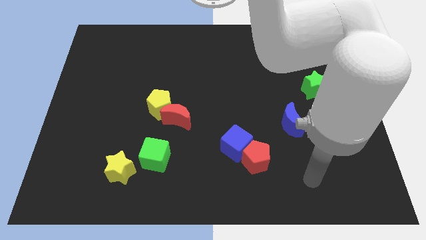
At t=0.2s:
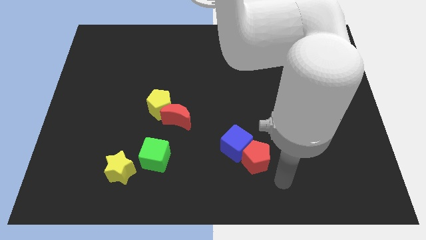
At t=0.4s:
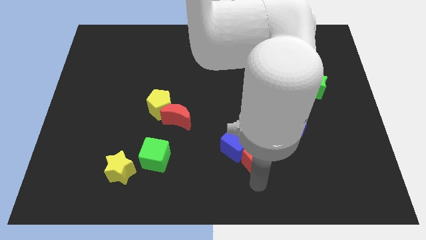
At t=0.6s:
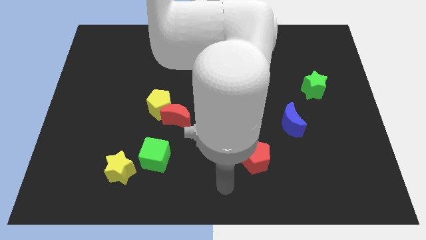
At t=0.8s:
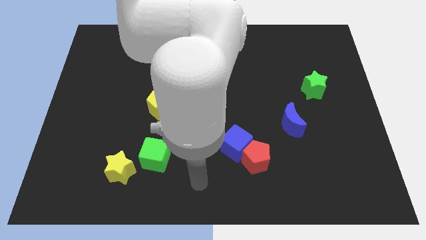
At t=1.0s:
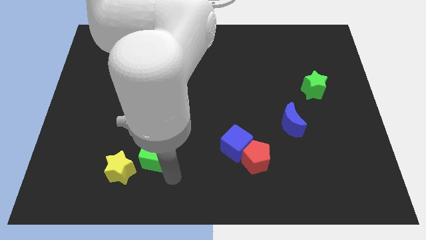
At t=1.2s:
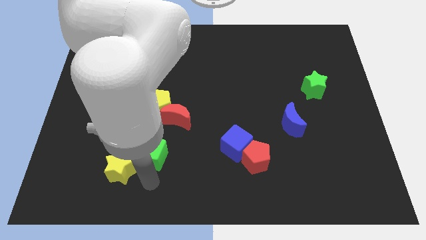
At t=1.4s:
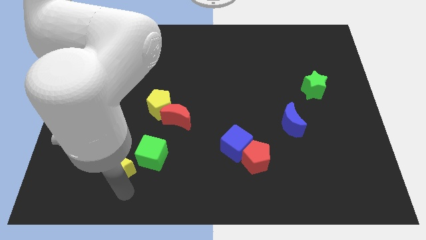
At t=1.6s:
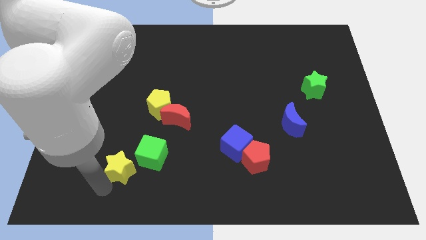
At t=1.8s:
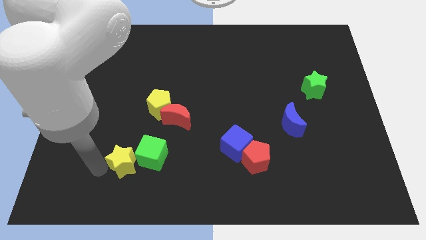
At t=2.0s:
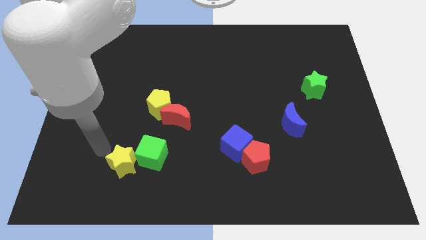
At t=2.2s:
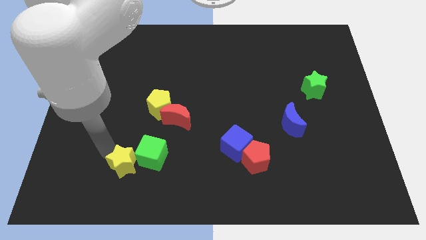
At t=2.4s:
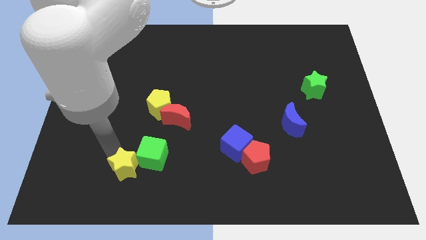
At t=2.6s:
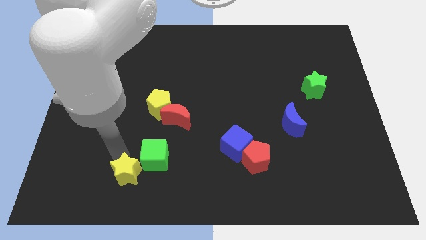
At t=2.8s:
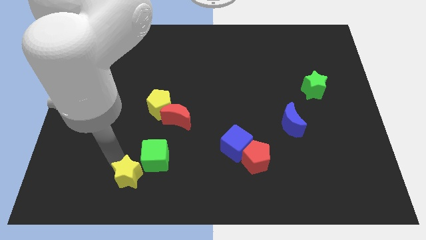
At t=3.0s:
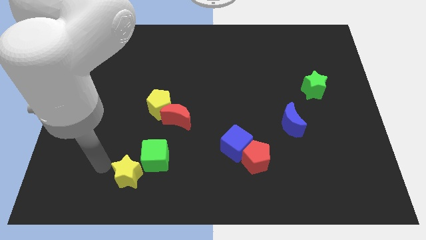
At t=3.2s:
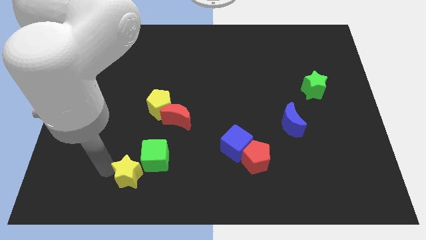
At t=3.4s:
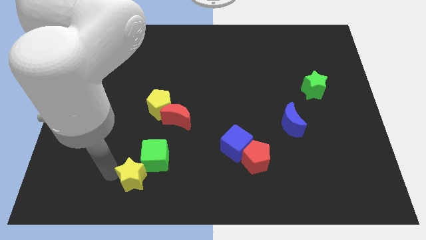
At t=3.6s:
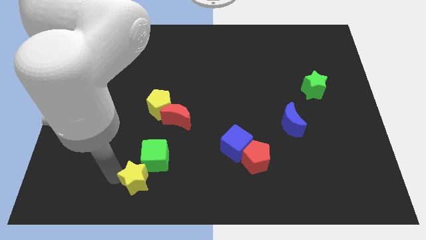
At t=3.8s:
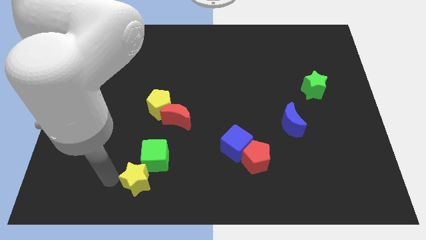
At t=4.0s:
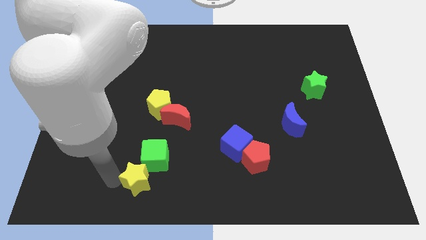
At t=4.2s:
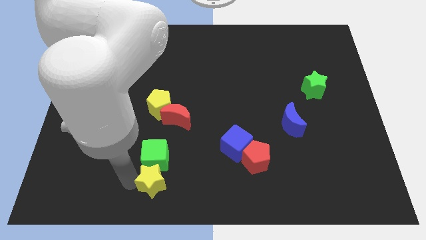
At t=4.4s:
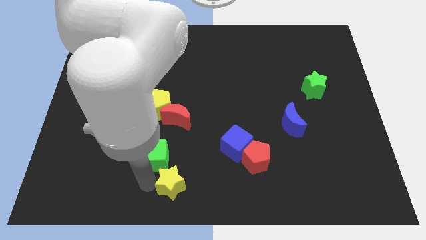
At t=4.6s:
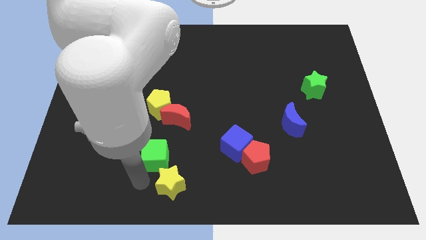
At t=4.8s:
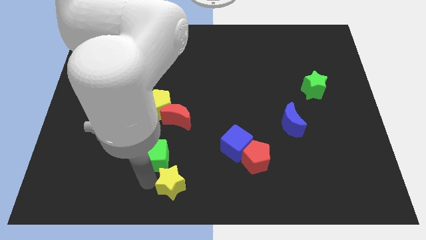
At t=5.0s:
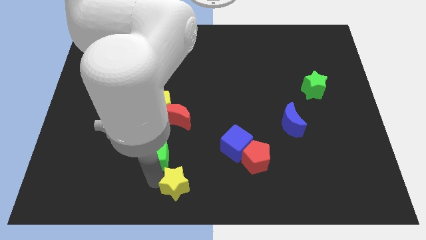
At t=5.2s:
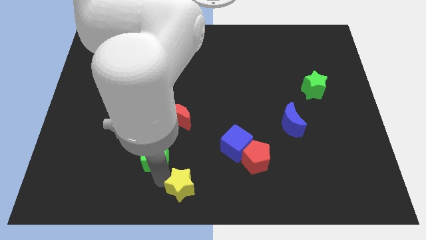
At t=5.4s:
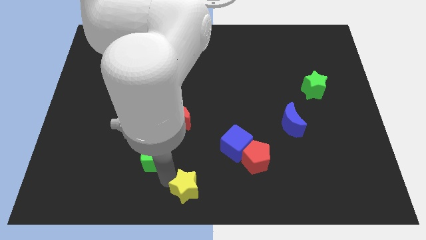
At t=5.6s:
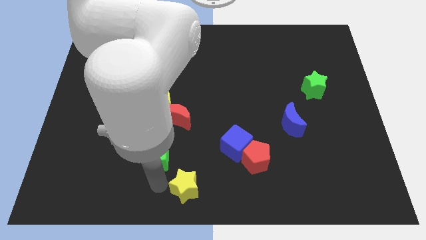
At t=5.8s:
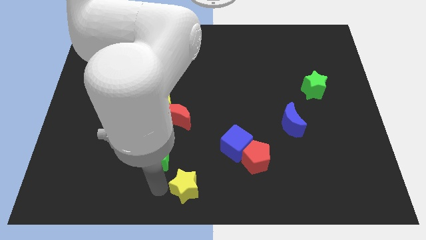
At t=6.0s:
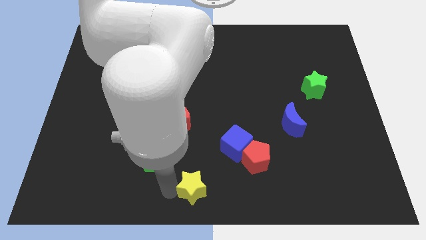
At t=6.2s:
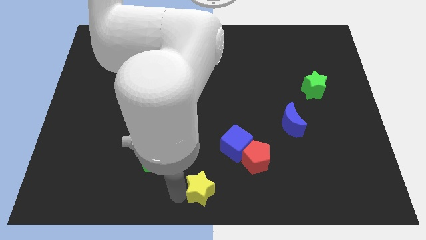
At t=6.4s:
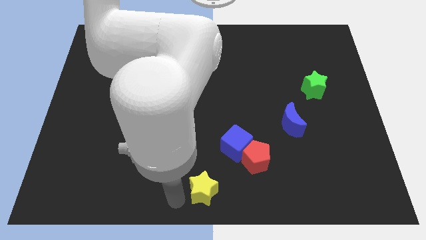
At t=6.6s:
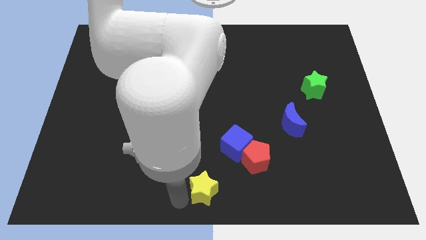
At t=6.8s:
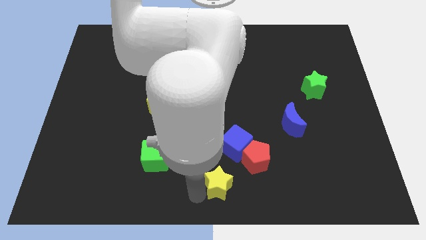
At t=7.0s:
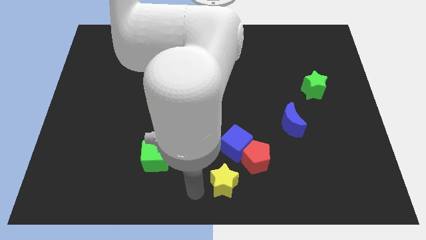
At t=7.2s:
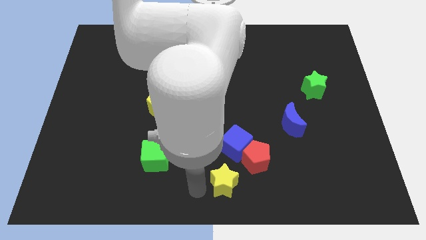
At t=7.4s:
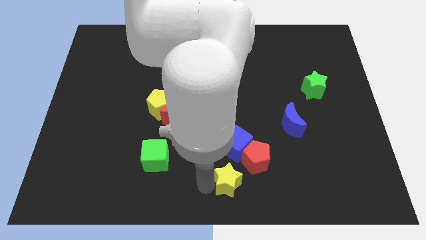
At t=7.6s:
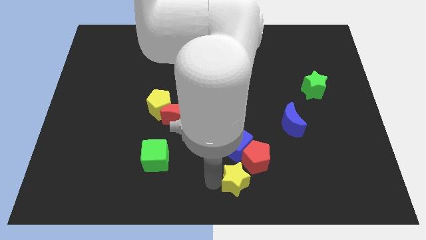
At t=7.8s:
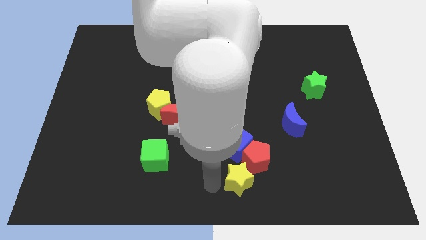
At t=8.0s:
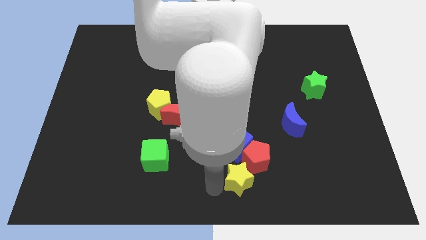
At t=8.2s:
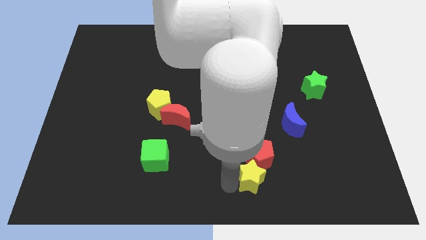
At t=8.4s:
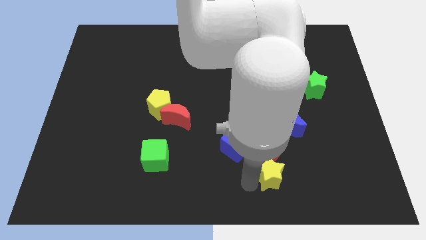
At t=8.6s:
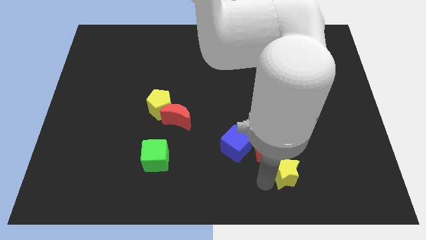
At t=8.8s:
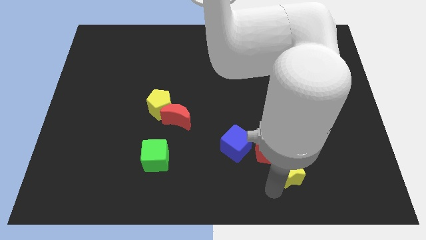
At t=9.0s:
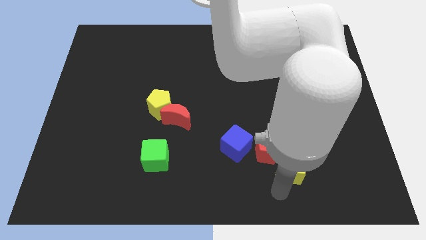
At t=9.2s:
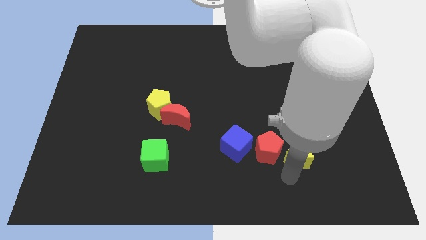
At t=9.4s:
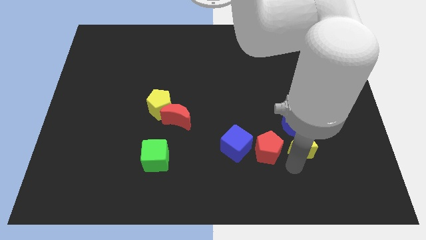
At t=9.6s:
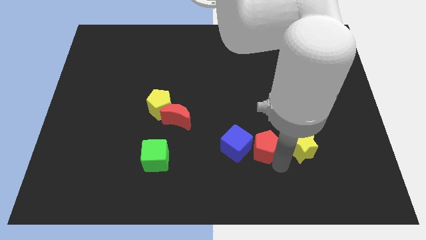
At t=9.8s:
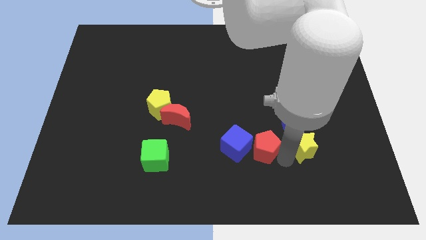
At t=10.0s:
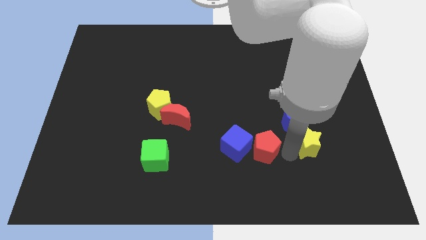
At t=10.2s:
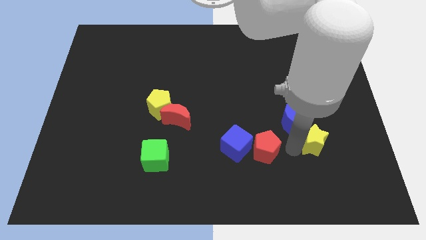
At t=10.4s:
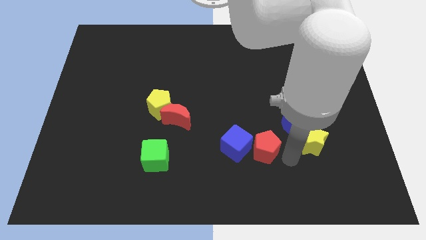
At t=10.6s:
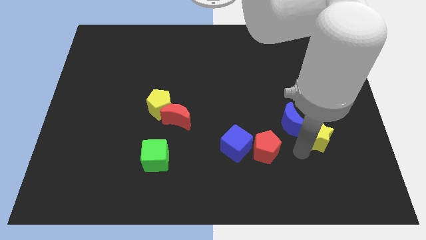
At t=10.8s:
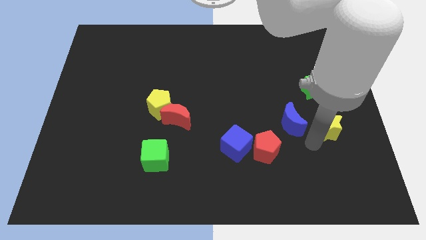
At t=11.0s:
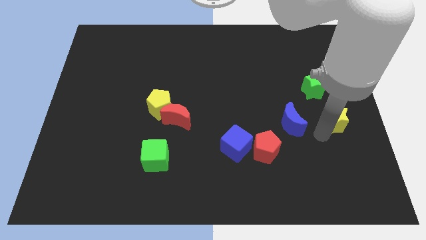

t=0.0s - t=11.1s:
put the yellow star to the center right

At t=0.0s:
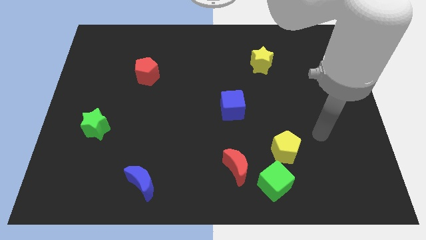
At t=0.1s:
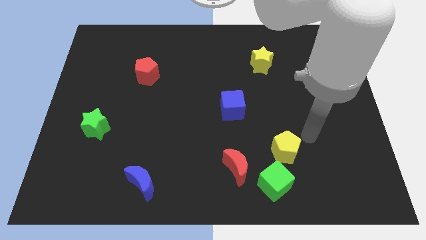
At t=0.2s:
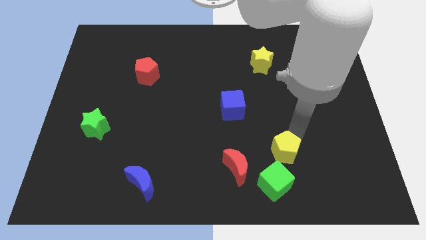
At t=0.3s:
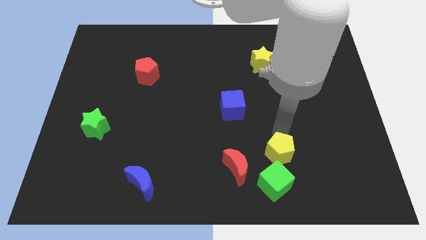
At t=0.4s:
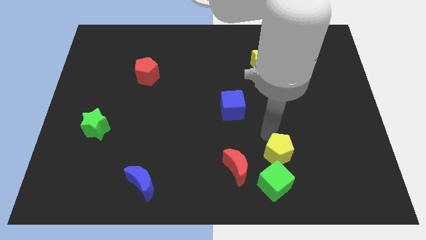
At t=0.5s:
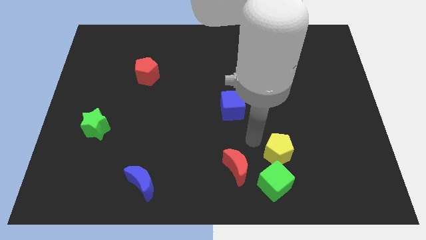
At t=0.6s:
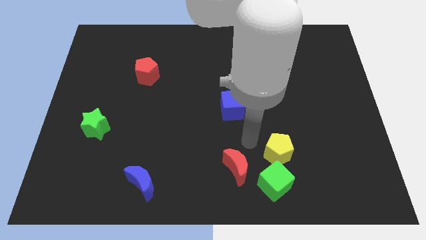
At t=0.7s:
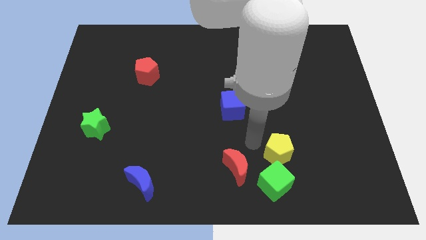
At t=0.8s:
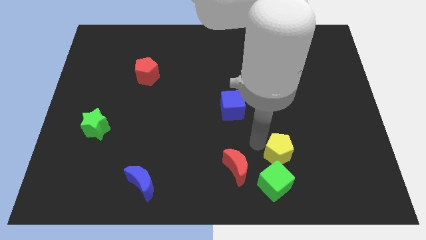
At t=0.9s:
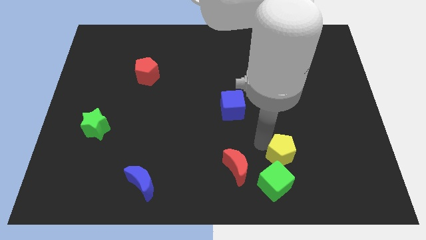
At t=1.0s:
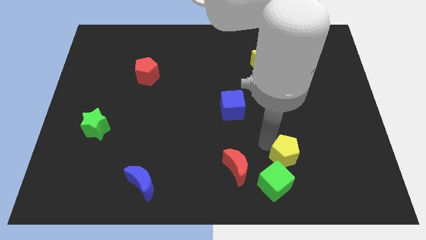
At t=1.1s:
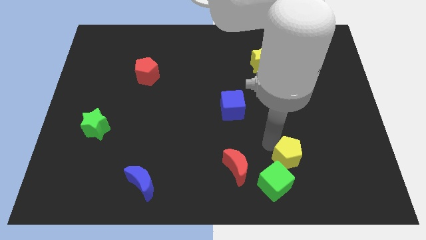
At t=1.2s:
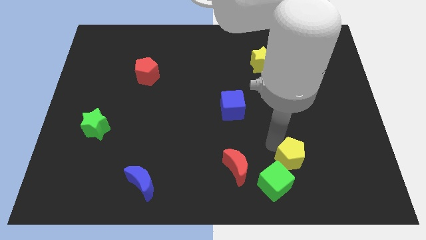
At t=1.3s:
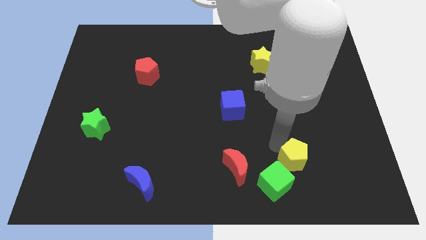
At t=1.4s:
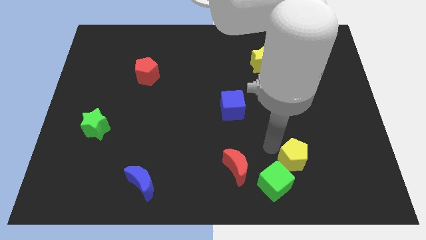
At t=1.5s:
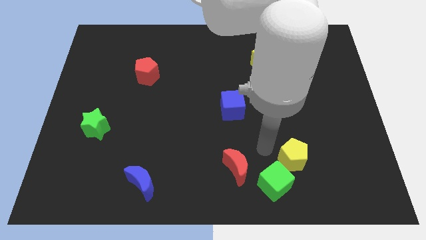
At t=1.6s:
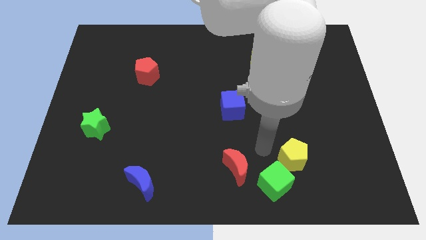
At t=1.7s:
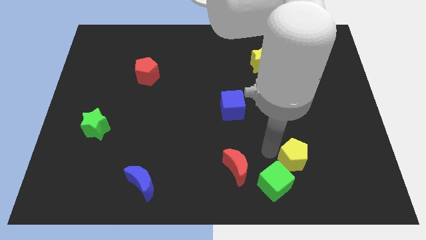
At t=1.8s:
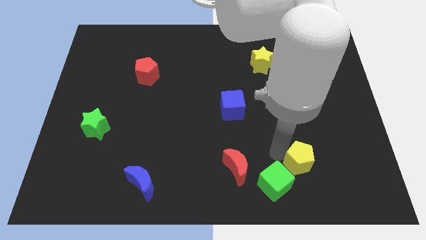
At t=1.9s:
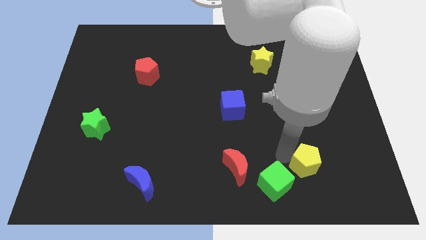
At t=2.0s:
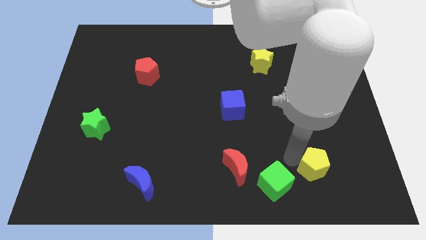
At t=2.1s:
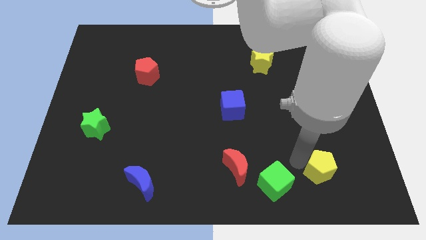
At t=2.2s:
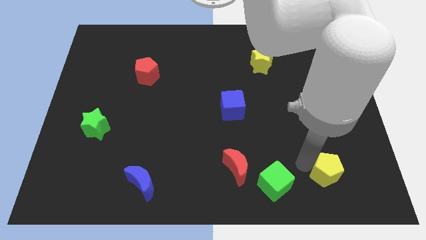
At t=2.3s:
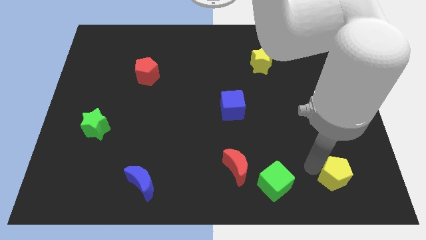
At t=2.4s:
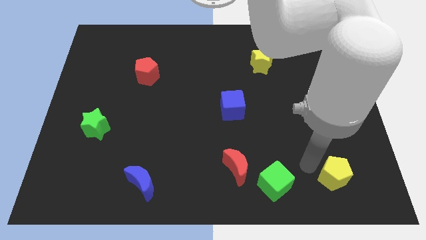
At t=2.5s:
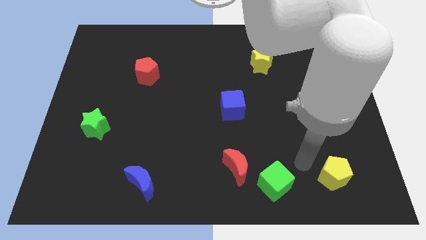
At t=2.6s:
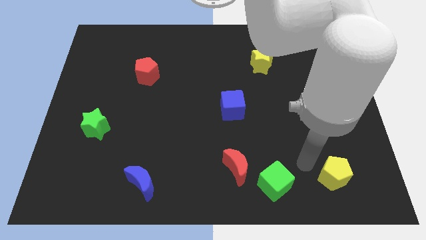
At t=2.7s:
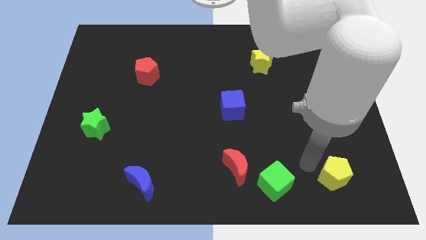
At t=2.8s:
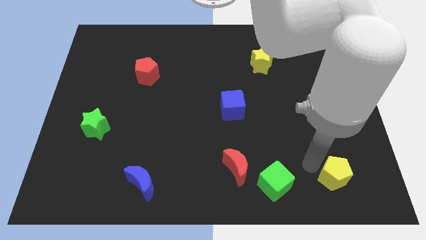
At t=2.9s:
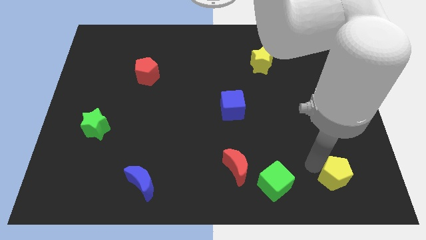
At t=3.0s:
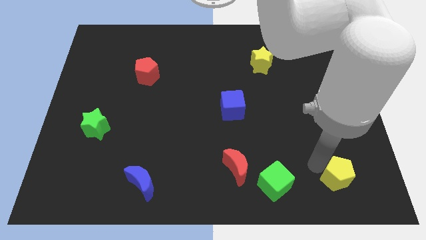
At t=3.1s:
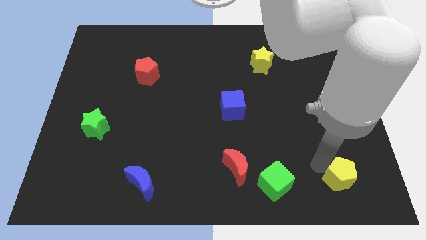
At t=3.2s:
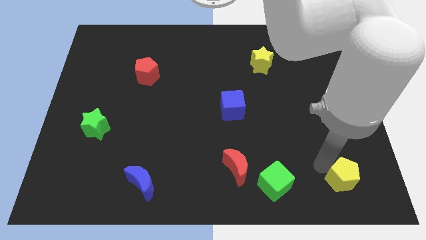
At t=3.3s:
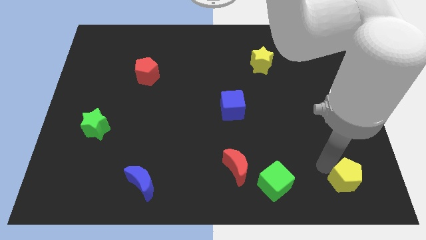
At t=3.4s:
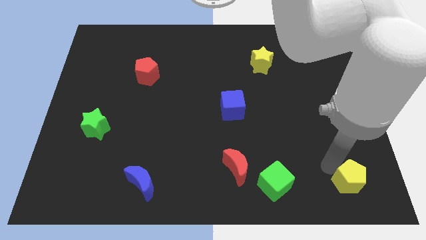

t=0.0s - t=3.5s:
move the yellow pentagon to the bottom right of the board
